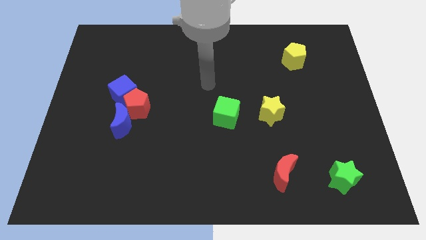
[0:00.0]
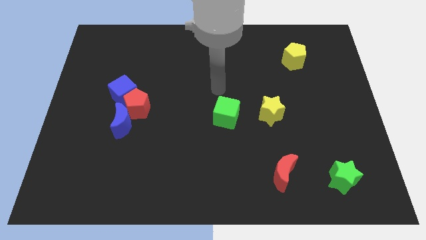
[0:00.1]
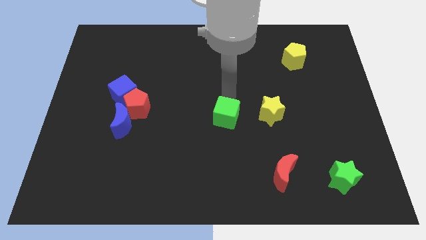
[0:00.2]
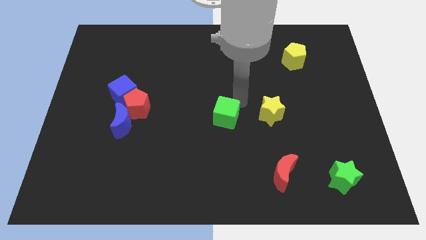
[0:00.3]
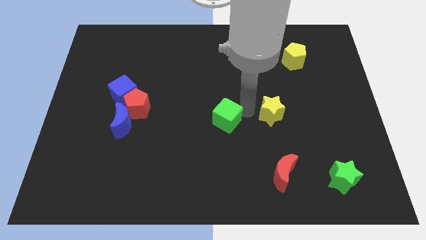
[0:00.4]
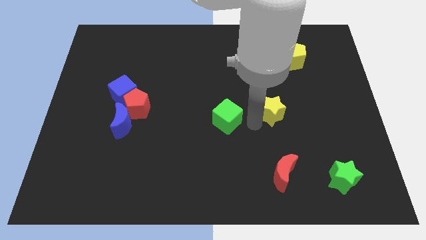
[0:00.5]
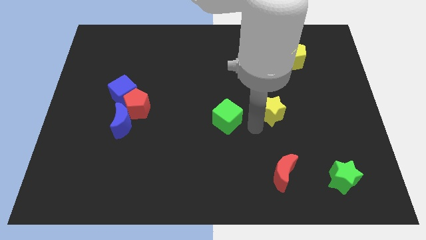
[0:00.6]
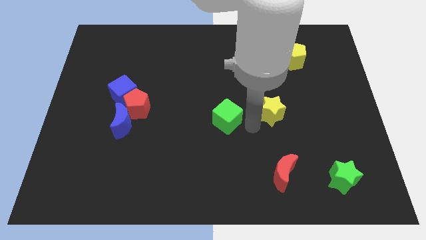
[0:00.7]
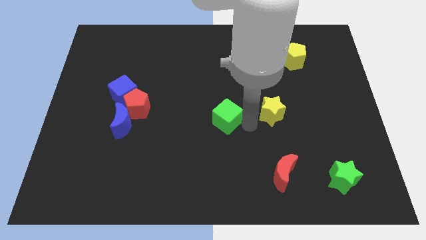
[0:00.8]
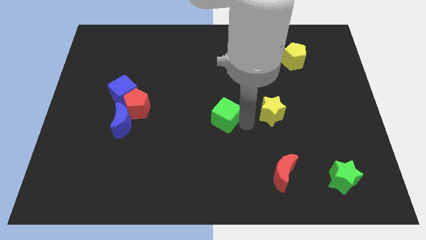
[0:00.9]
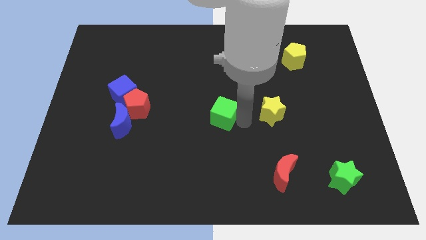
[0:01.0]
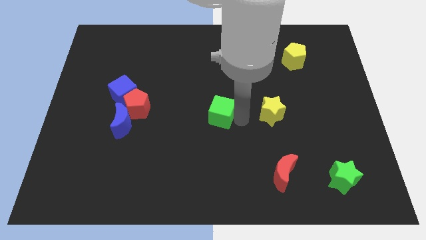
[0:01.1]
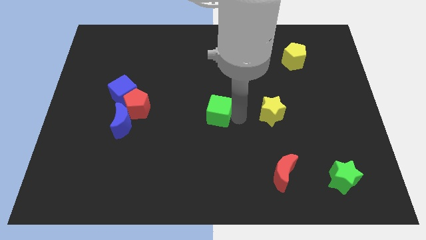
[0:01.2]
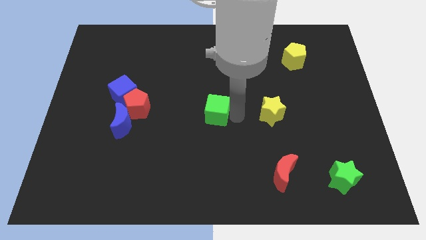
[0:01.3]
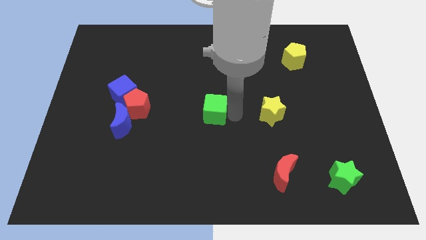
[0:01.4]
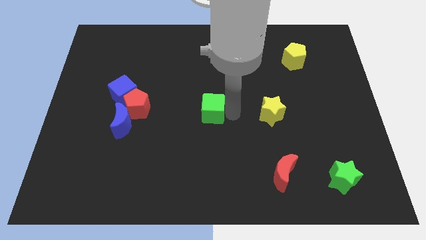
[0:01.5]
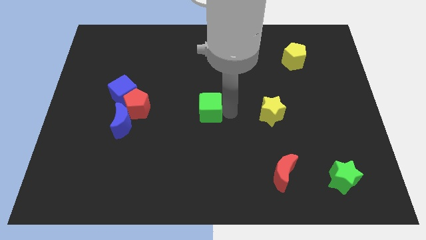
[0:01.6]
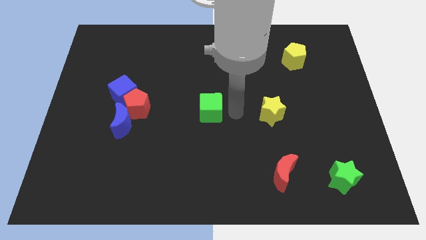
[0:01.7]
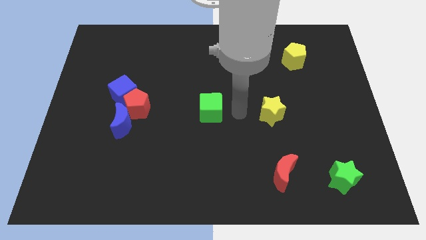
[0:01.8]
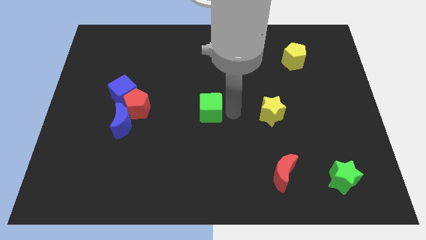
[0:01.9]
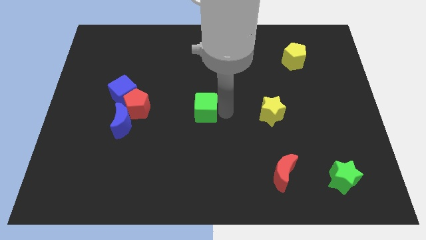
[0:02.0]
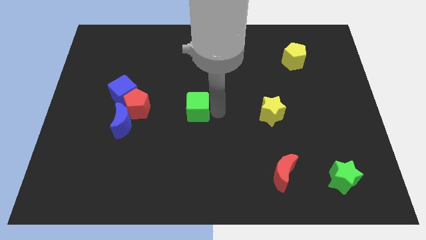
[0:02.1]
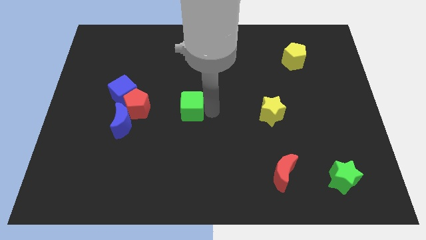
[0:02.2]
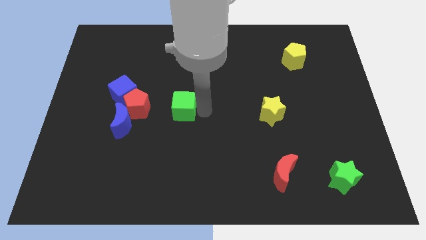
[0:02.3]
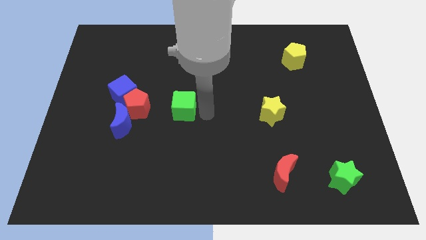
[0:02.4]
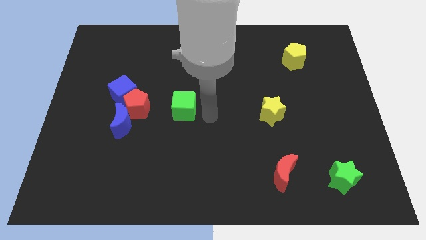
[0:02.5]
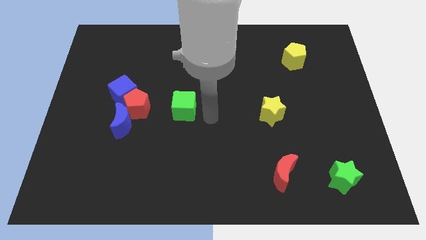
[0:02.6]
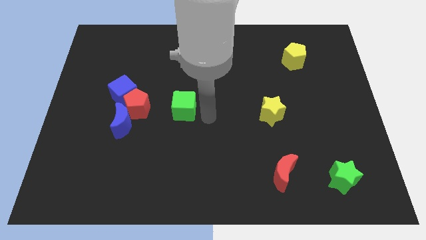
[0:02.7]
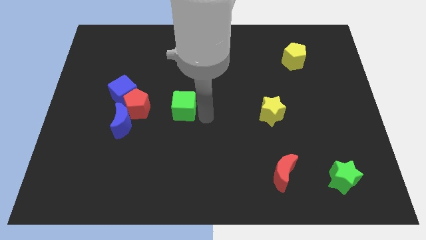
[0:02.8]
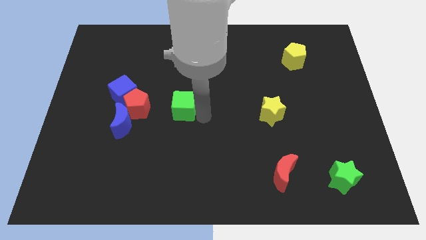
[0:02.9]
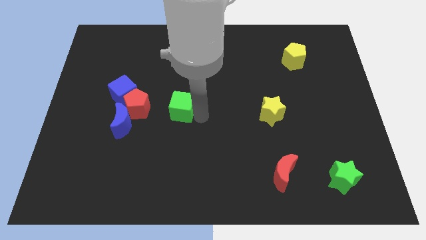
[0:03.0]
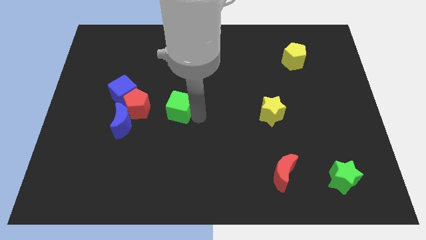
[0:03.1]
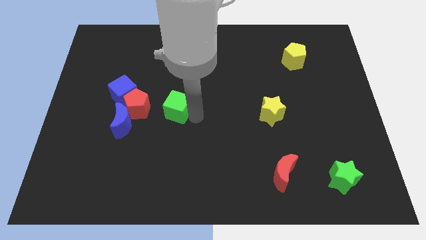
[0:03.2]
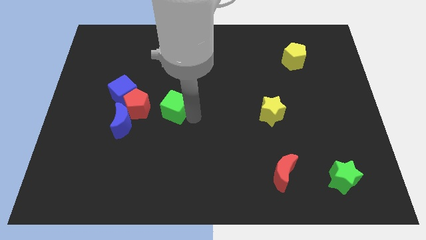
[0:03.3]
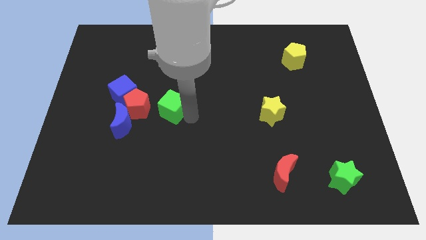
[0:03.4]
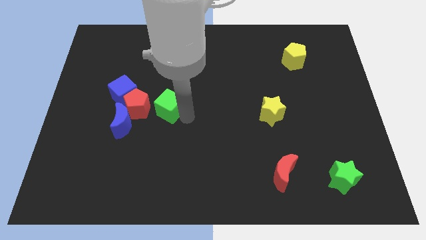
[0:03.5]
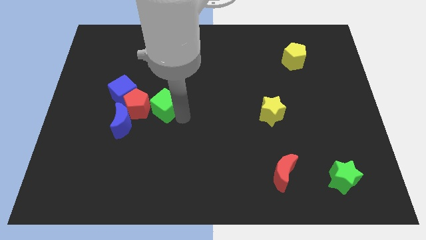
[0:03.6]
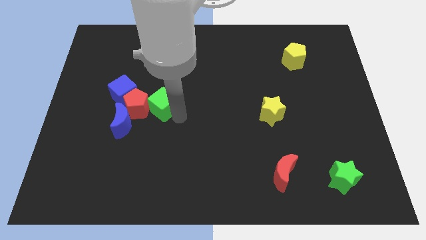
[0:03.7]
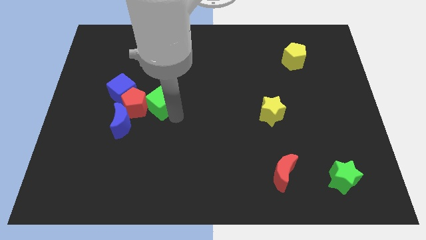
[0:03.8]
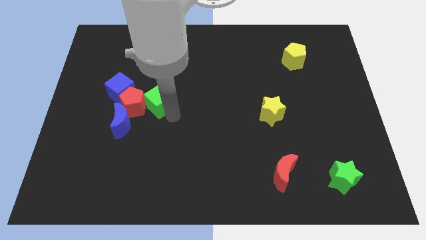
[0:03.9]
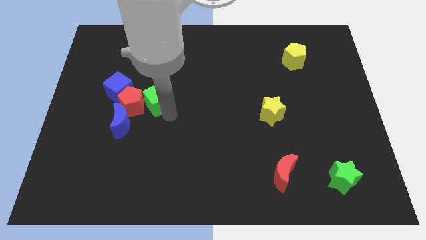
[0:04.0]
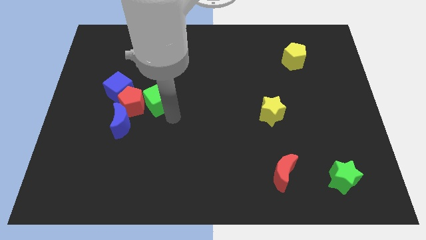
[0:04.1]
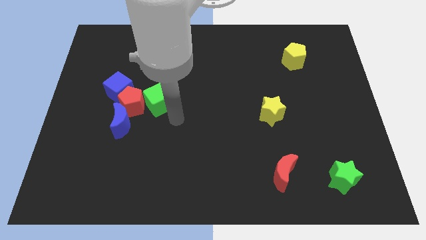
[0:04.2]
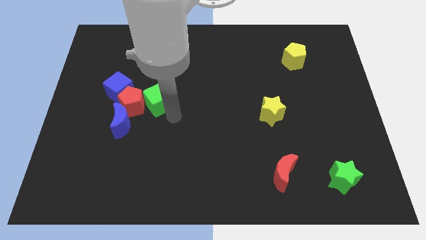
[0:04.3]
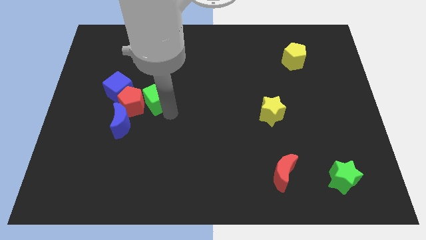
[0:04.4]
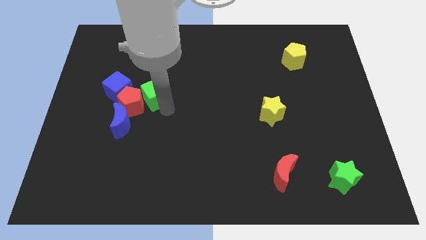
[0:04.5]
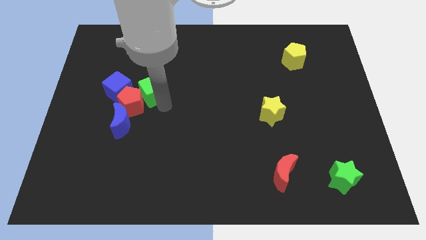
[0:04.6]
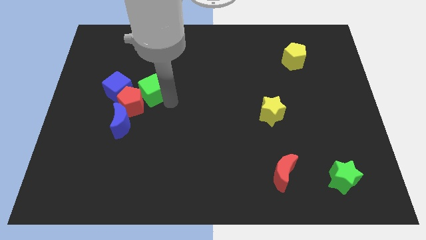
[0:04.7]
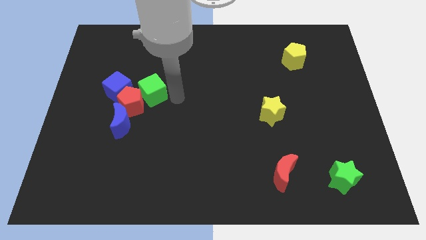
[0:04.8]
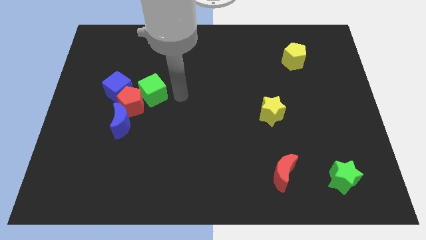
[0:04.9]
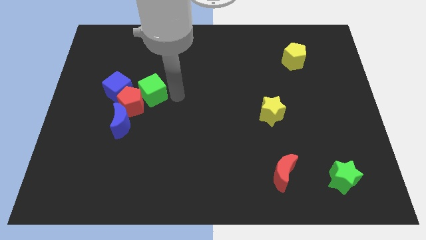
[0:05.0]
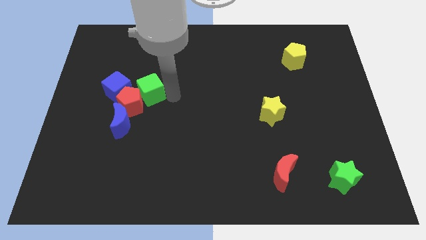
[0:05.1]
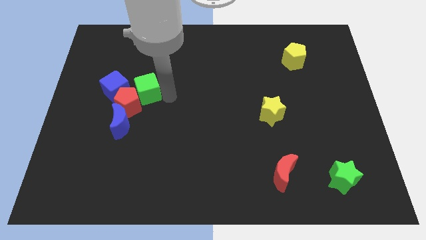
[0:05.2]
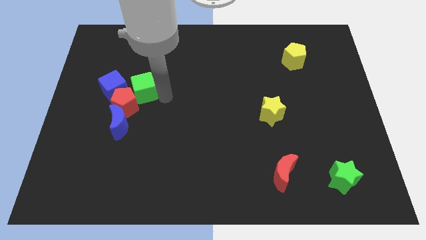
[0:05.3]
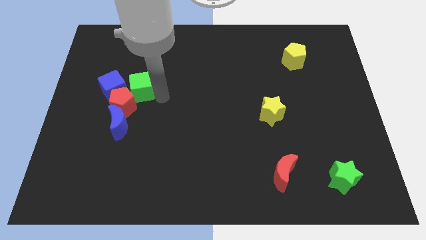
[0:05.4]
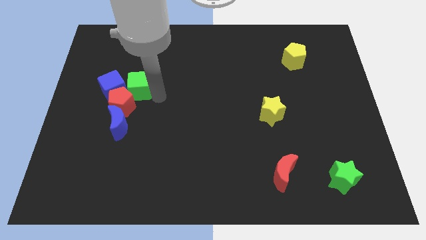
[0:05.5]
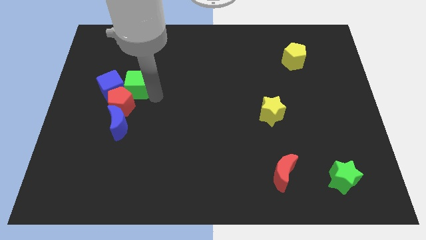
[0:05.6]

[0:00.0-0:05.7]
move the green cube towards the blue cube
